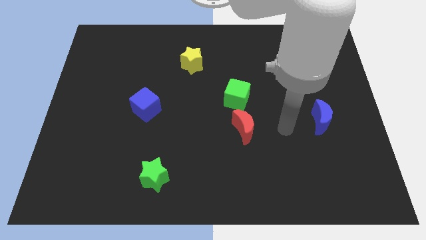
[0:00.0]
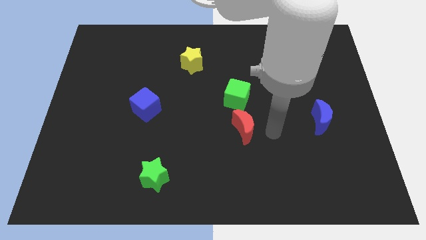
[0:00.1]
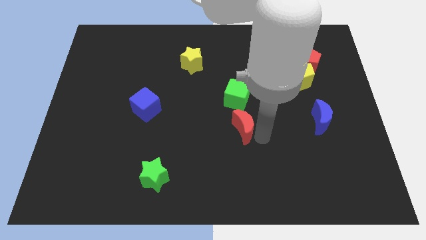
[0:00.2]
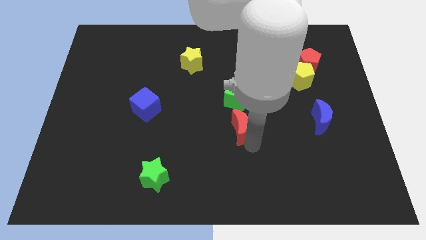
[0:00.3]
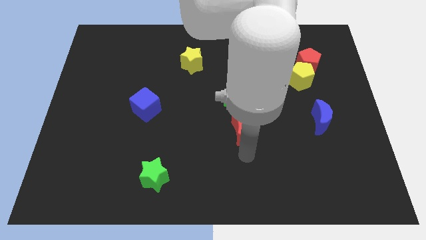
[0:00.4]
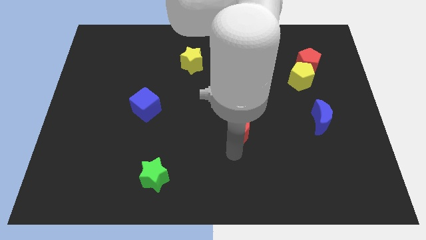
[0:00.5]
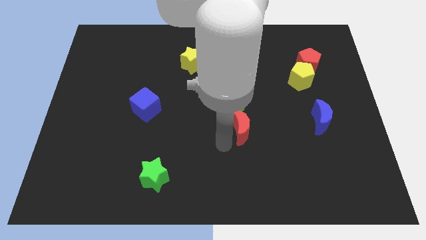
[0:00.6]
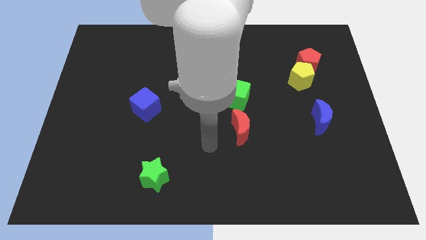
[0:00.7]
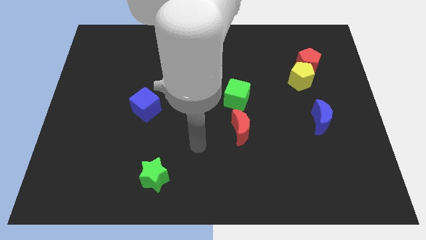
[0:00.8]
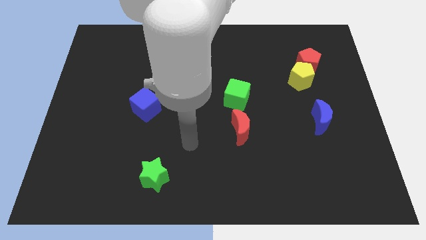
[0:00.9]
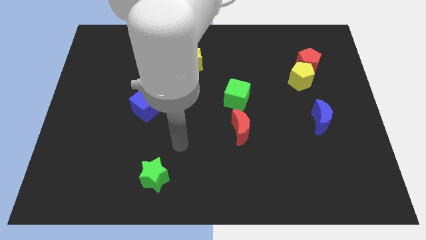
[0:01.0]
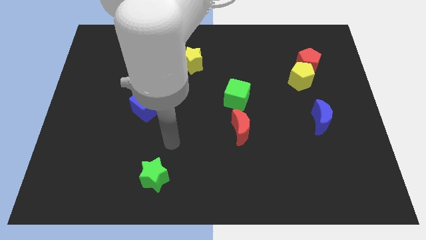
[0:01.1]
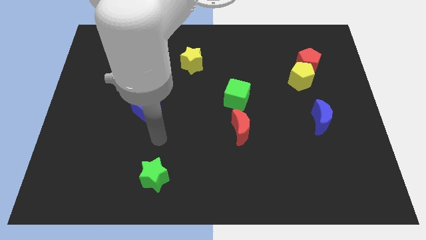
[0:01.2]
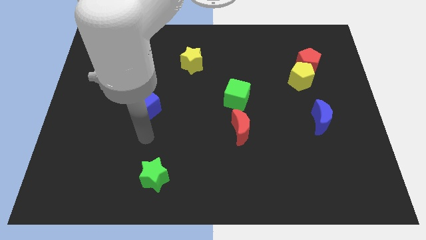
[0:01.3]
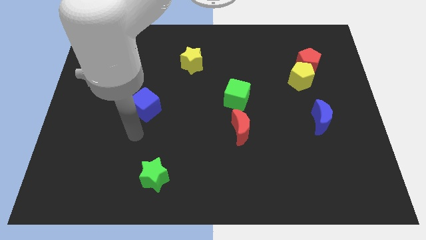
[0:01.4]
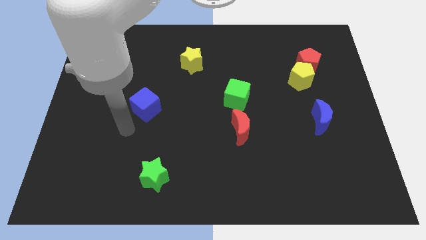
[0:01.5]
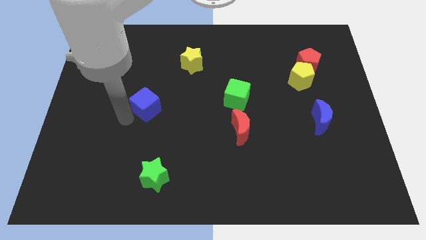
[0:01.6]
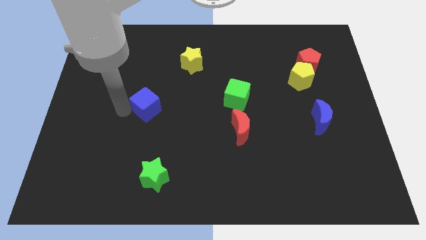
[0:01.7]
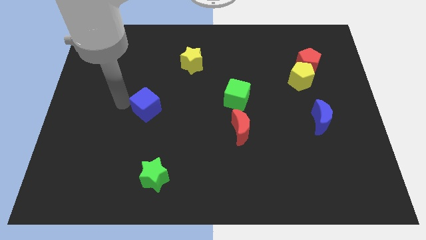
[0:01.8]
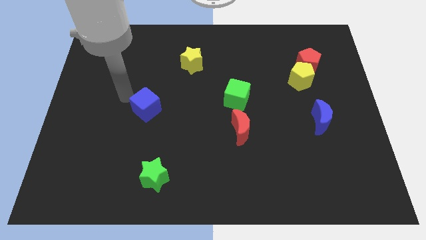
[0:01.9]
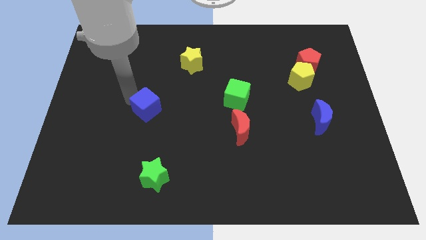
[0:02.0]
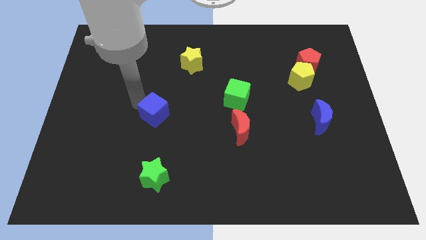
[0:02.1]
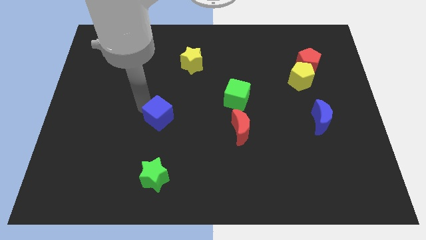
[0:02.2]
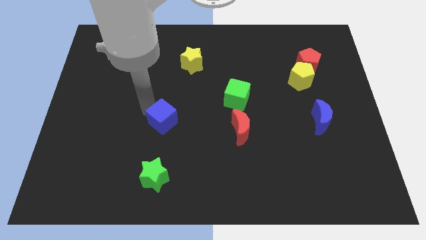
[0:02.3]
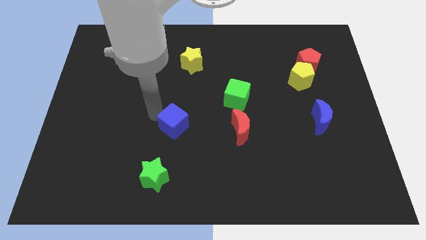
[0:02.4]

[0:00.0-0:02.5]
move the blue cube downwards and right diagonally a little bit

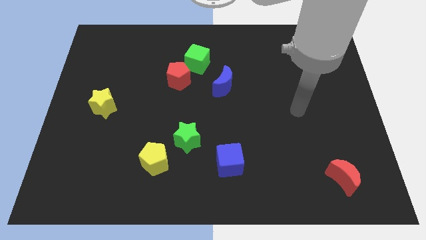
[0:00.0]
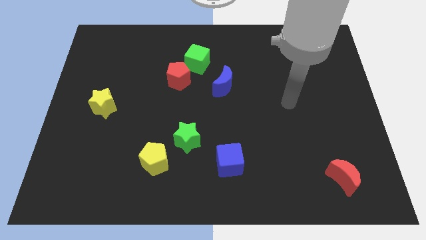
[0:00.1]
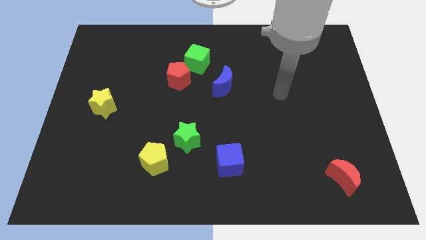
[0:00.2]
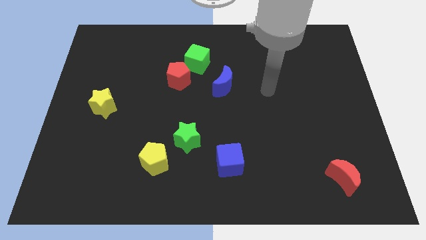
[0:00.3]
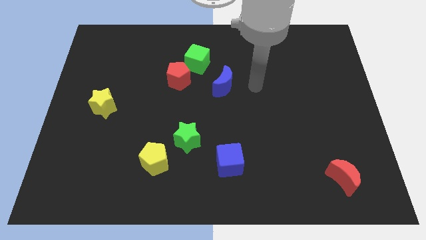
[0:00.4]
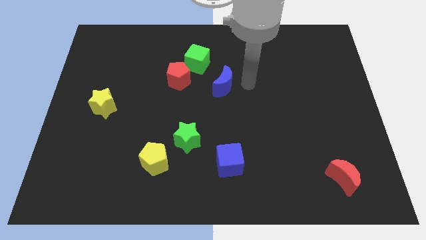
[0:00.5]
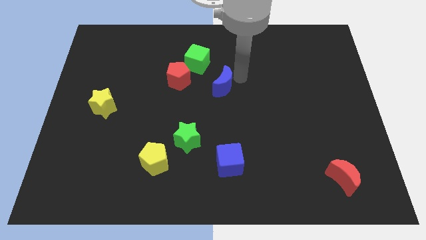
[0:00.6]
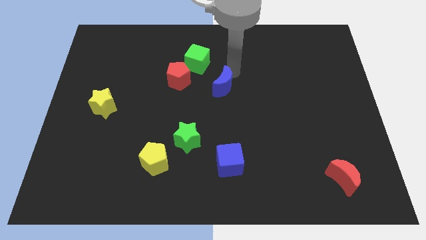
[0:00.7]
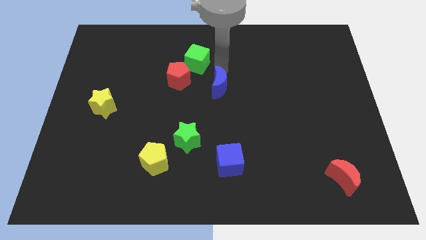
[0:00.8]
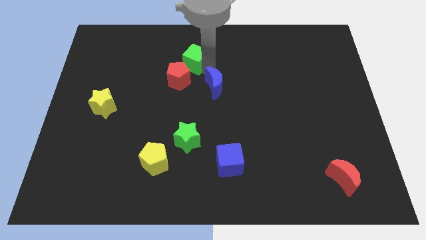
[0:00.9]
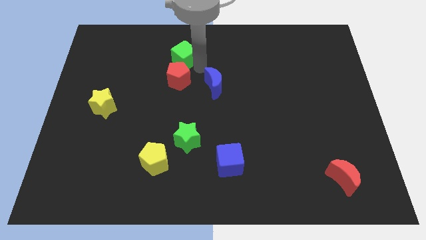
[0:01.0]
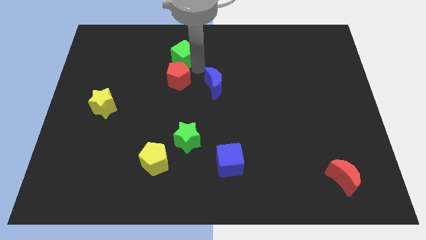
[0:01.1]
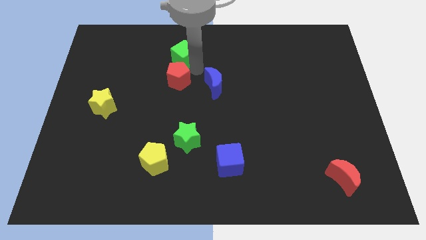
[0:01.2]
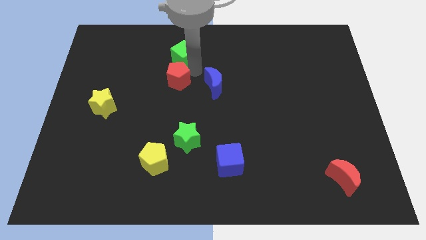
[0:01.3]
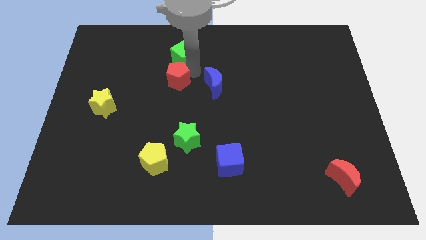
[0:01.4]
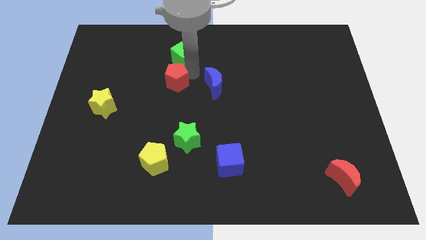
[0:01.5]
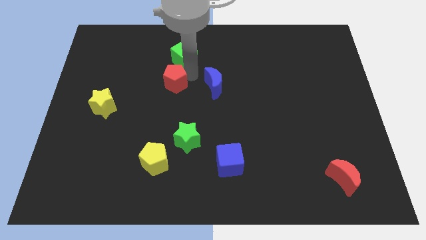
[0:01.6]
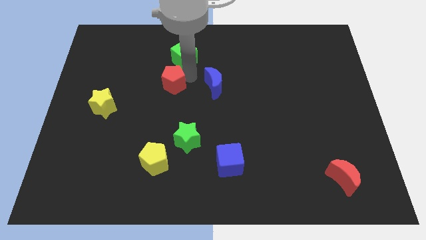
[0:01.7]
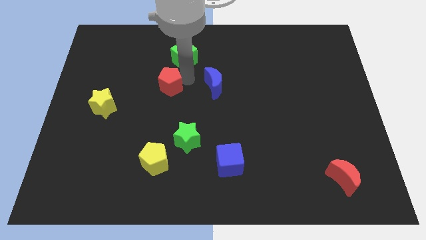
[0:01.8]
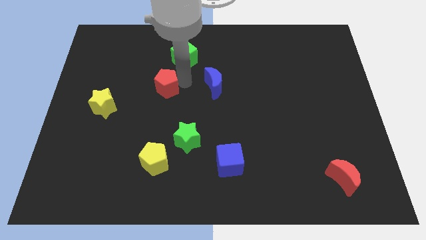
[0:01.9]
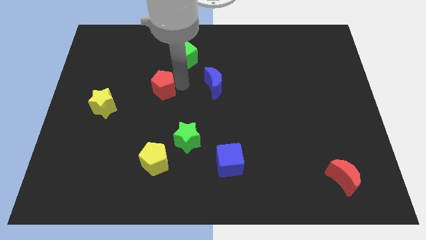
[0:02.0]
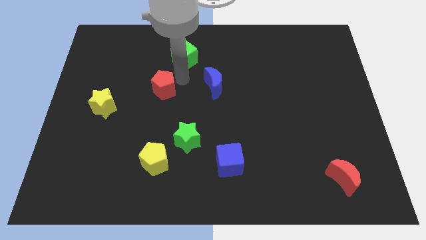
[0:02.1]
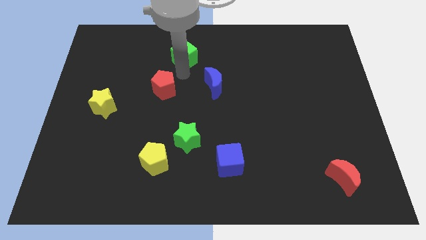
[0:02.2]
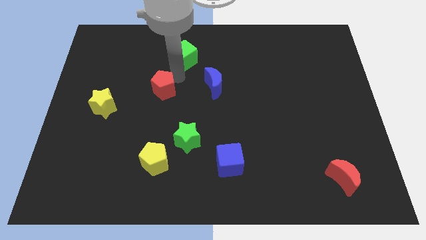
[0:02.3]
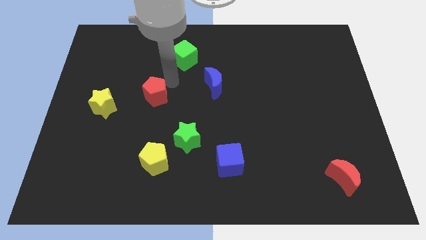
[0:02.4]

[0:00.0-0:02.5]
move the red pentagon down and then to the left a bit

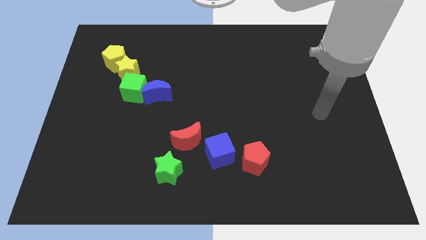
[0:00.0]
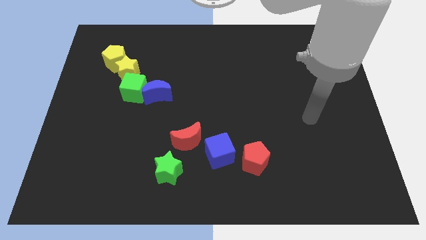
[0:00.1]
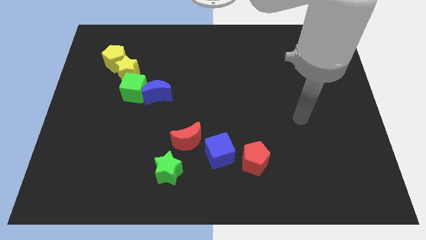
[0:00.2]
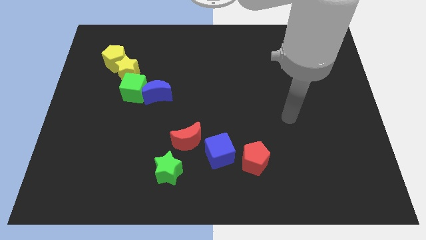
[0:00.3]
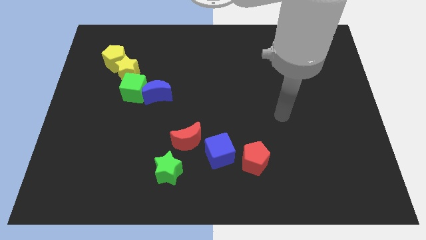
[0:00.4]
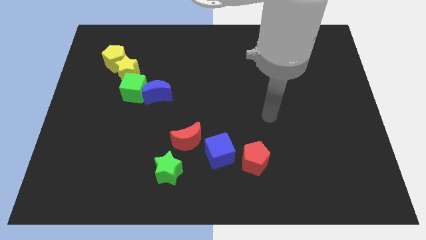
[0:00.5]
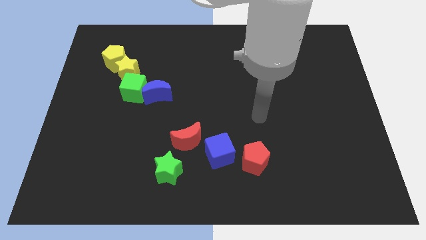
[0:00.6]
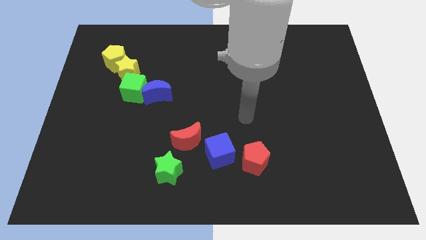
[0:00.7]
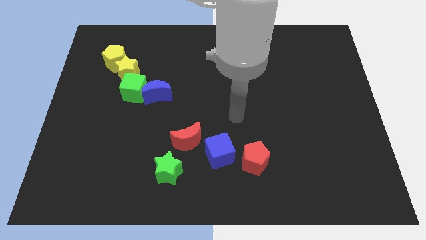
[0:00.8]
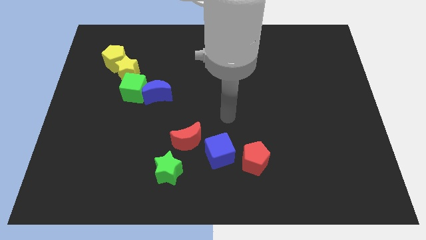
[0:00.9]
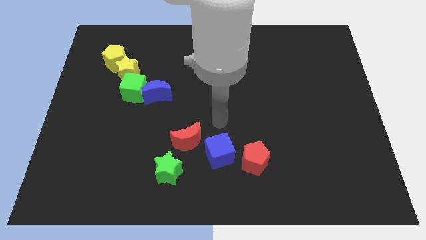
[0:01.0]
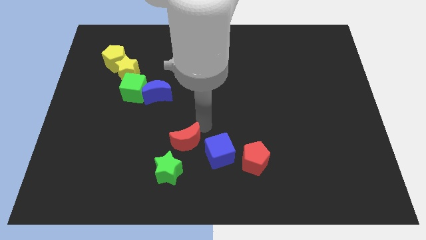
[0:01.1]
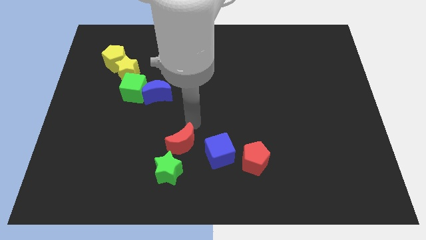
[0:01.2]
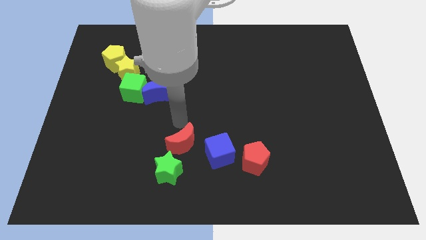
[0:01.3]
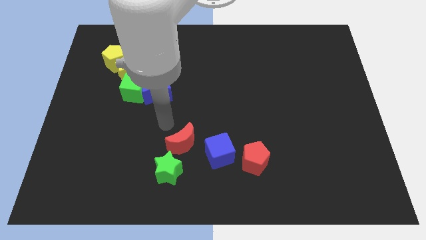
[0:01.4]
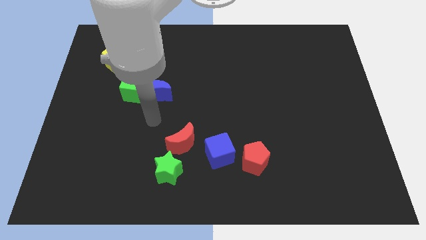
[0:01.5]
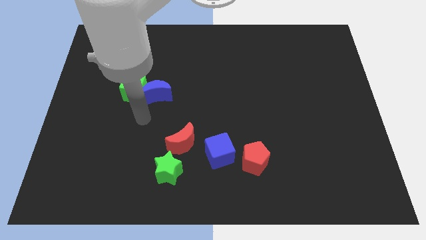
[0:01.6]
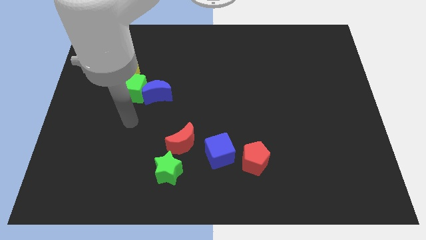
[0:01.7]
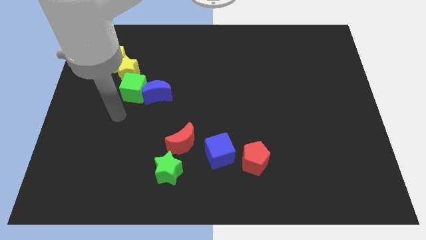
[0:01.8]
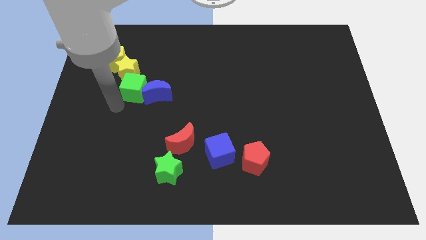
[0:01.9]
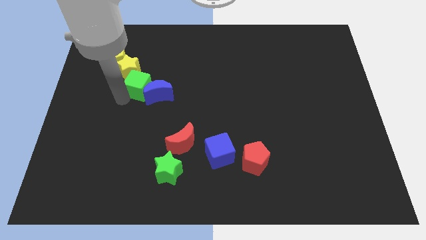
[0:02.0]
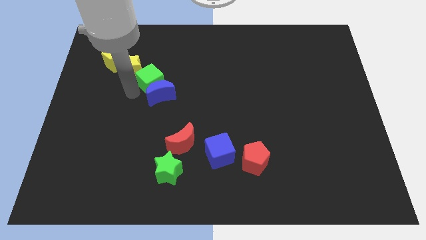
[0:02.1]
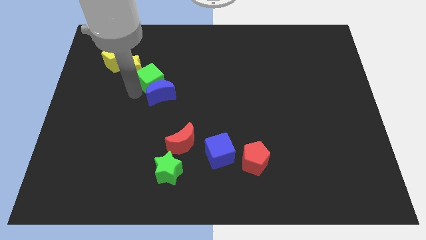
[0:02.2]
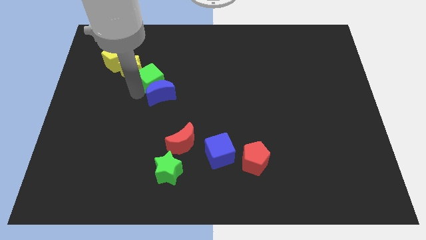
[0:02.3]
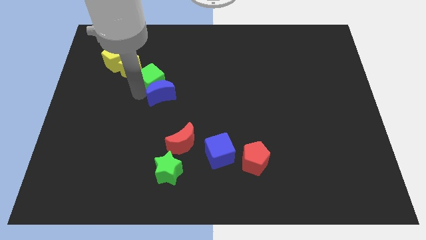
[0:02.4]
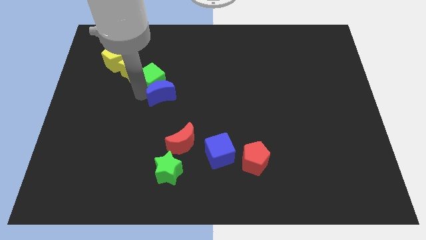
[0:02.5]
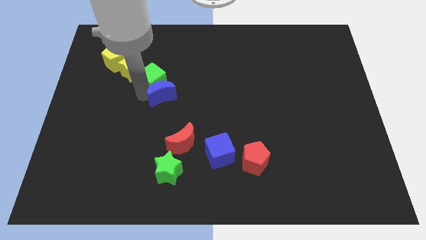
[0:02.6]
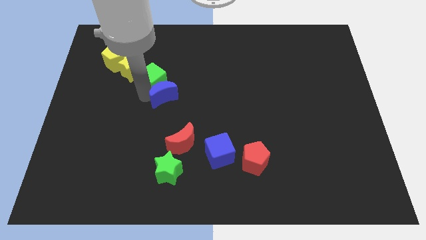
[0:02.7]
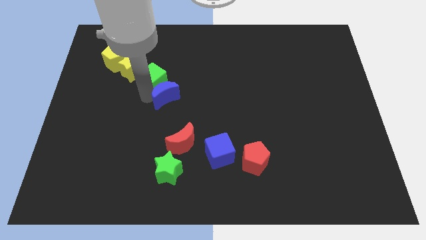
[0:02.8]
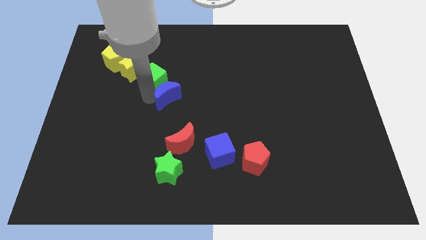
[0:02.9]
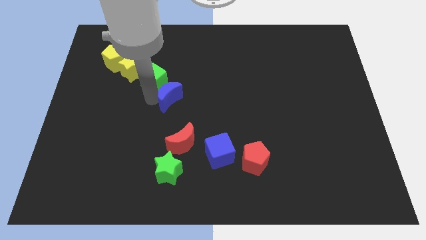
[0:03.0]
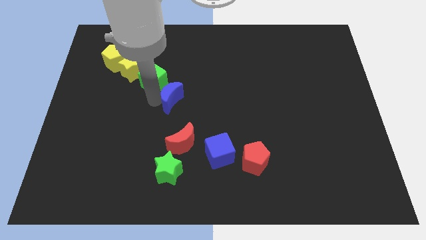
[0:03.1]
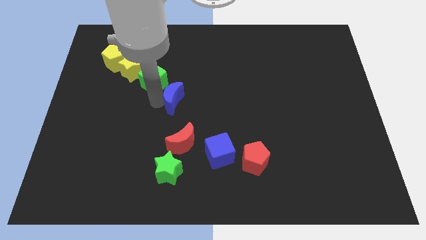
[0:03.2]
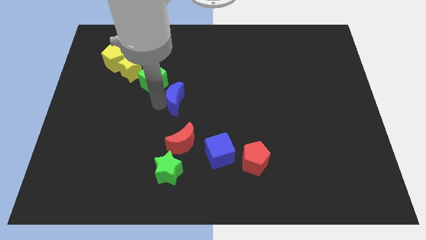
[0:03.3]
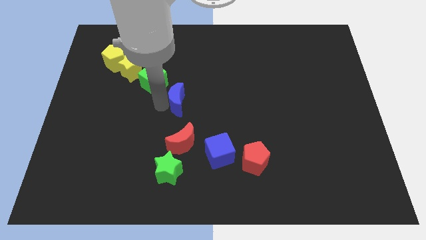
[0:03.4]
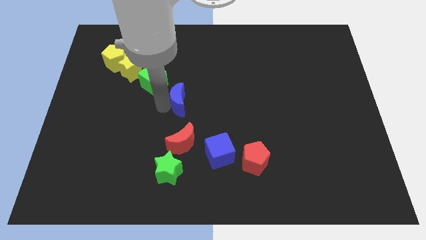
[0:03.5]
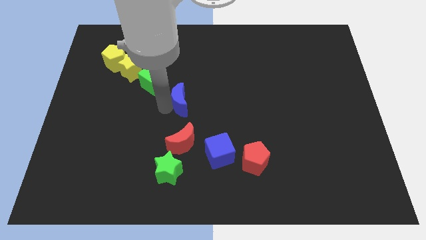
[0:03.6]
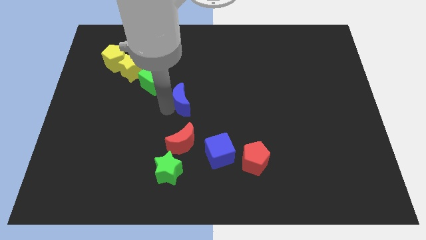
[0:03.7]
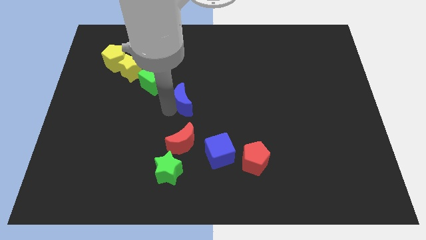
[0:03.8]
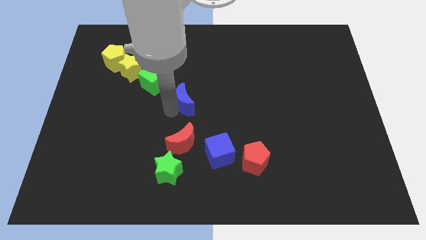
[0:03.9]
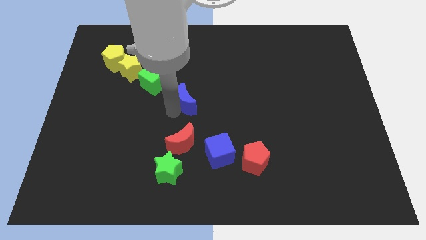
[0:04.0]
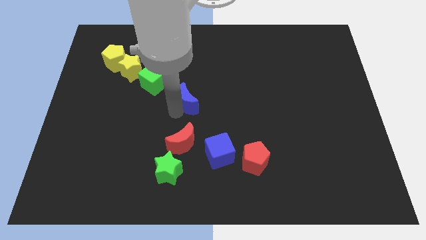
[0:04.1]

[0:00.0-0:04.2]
slide the blue moon right a little bit
